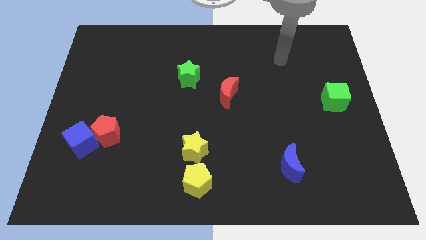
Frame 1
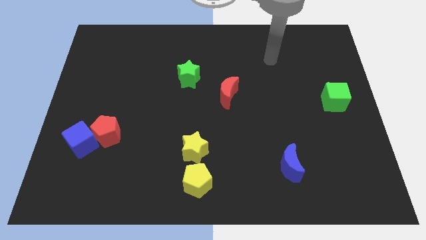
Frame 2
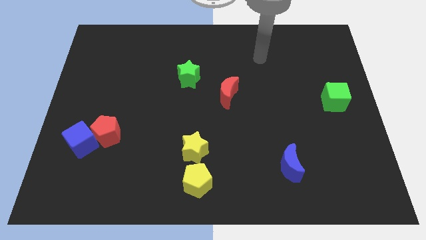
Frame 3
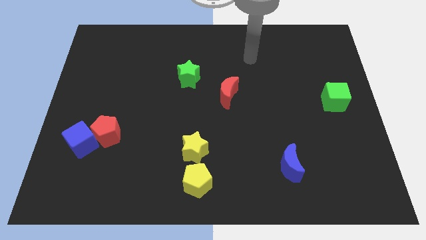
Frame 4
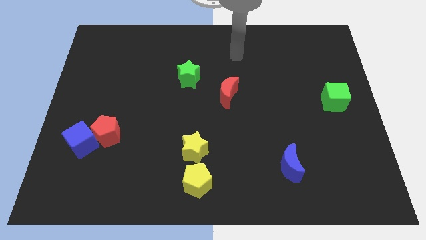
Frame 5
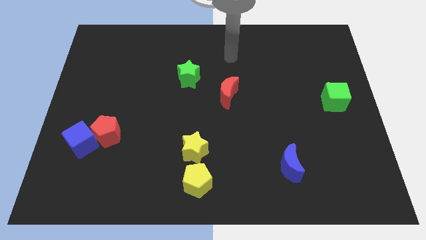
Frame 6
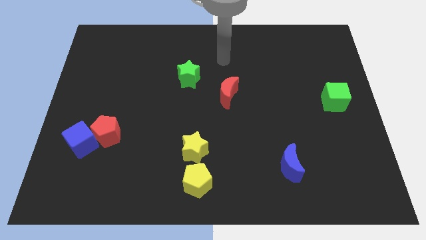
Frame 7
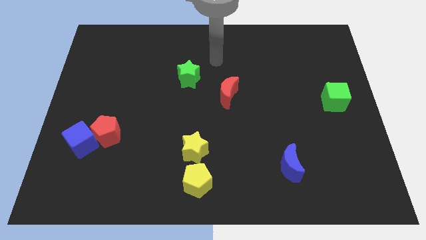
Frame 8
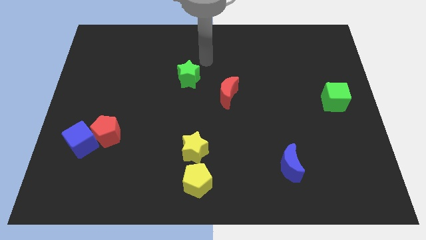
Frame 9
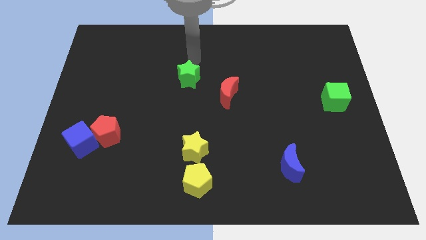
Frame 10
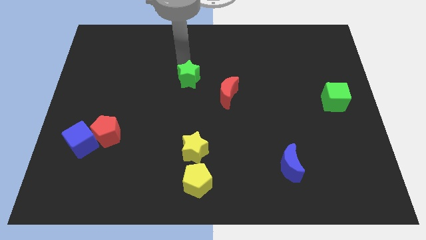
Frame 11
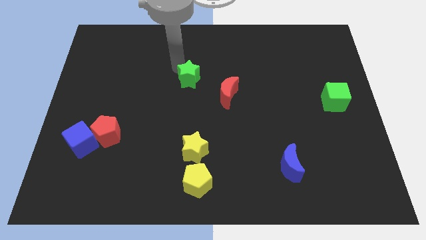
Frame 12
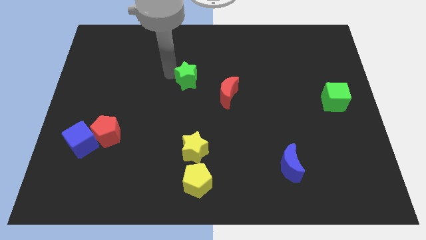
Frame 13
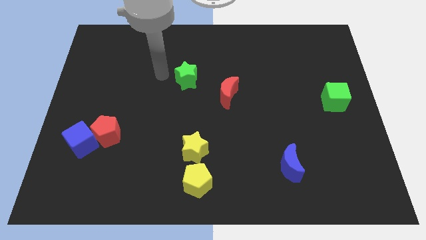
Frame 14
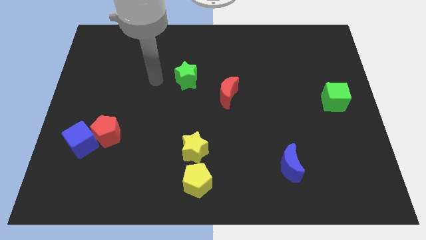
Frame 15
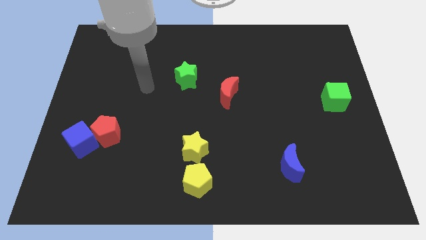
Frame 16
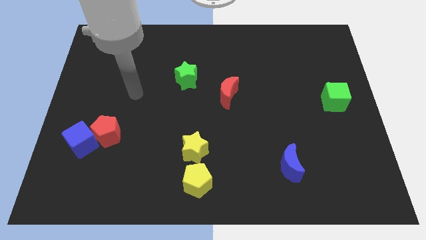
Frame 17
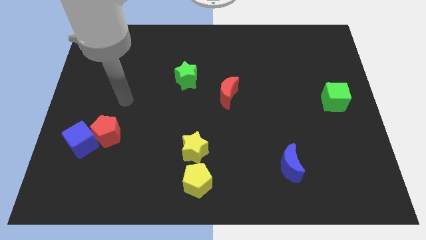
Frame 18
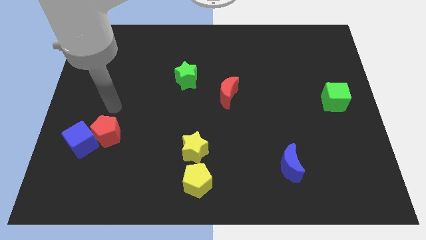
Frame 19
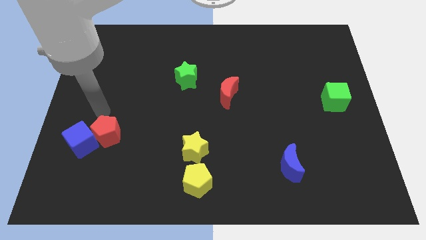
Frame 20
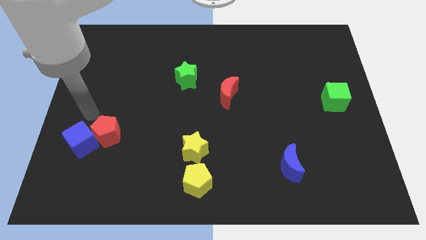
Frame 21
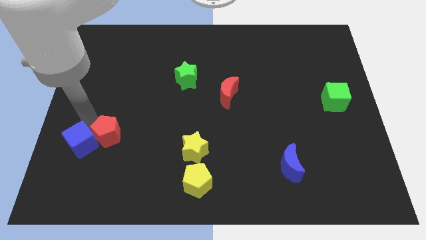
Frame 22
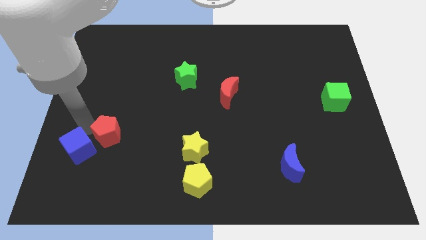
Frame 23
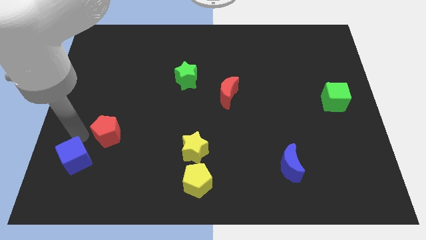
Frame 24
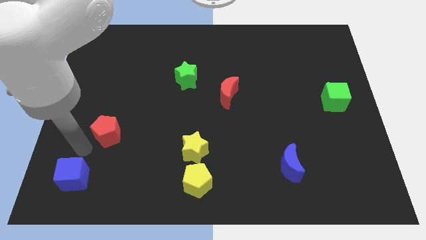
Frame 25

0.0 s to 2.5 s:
move the red pentagon away from the blue cube

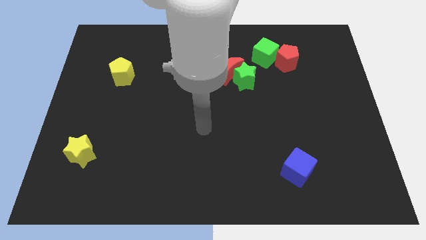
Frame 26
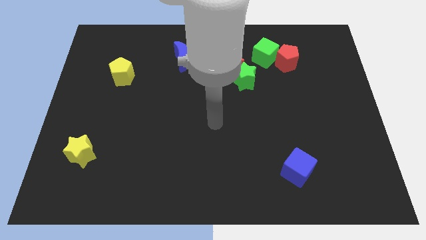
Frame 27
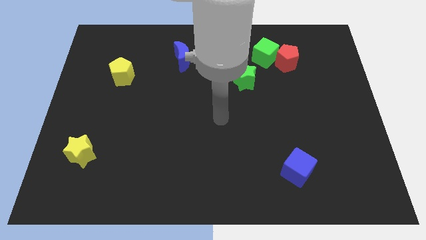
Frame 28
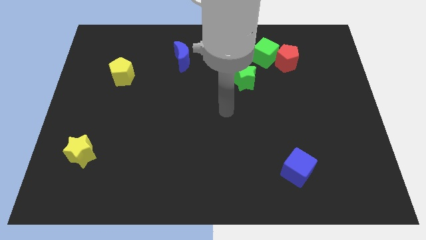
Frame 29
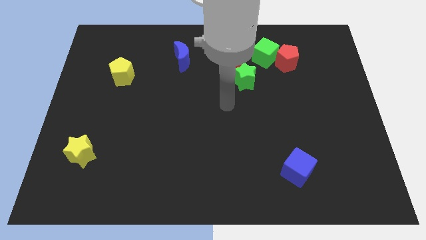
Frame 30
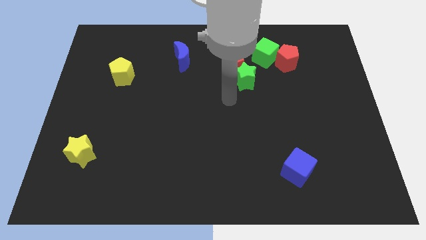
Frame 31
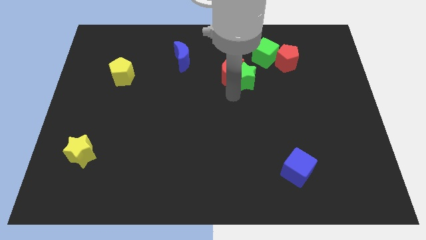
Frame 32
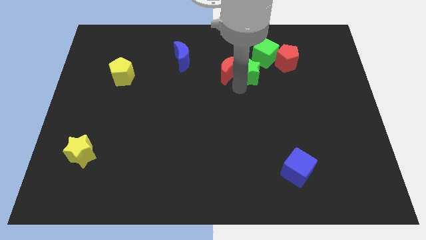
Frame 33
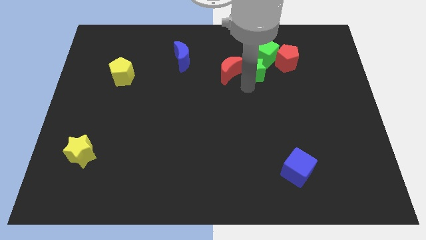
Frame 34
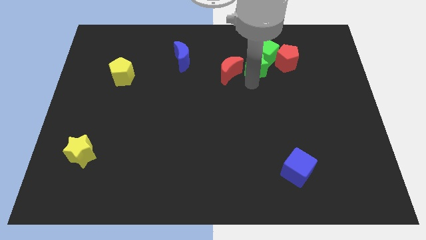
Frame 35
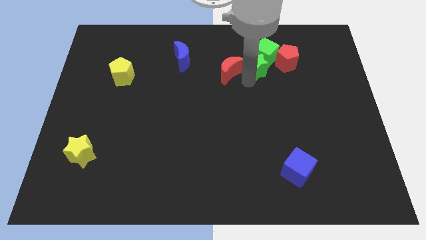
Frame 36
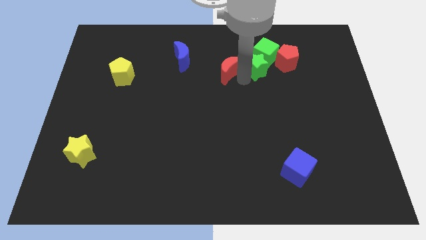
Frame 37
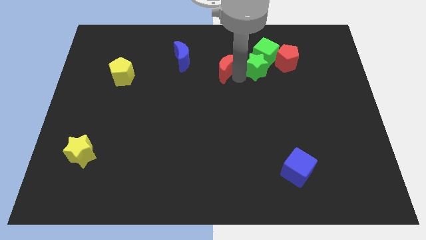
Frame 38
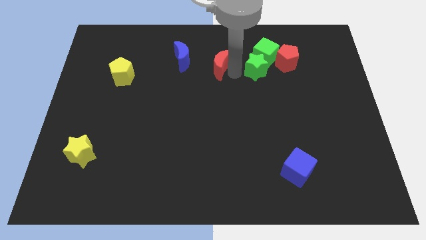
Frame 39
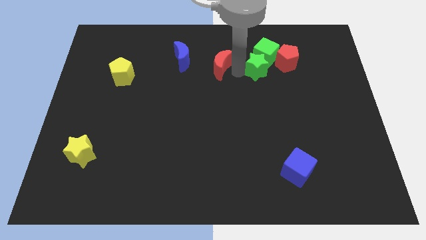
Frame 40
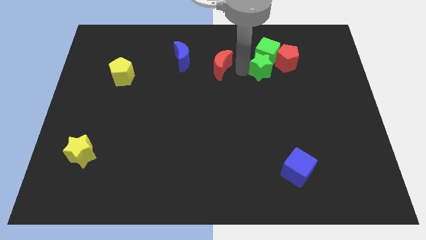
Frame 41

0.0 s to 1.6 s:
move the red moon away from the green star

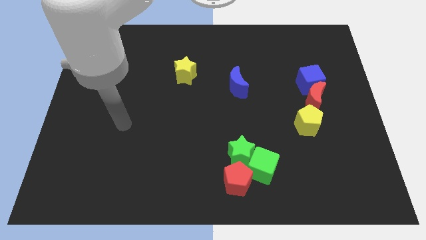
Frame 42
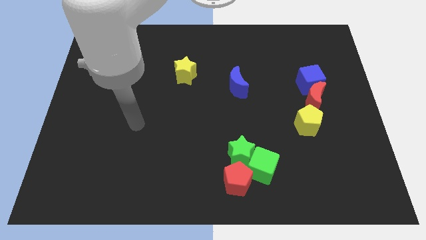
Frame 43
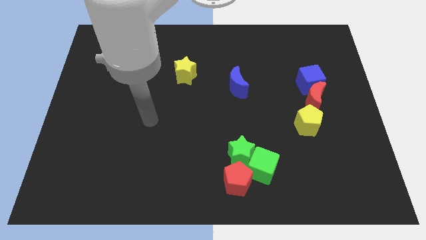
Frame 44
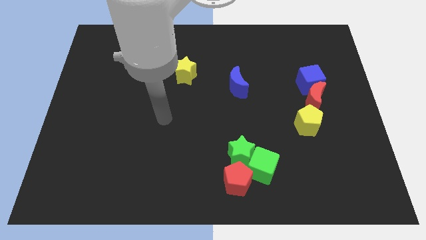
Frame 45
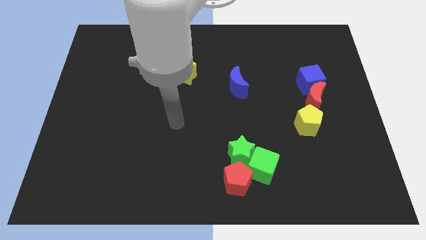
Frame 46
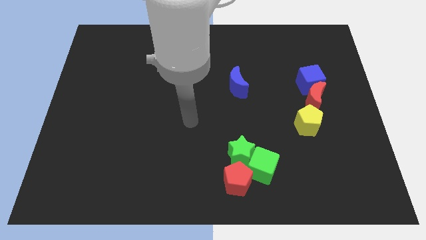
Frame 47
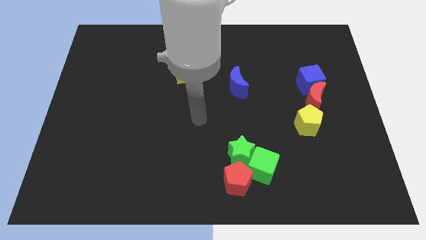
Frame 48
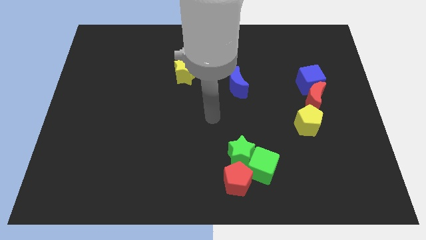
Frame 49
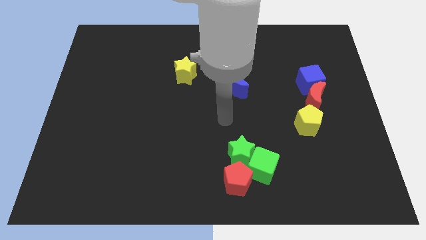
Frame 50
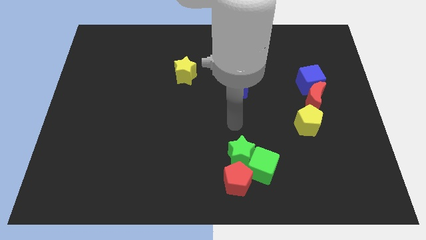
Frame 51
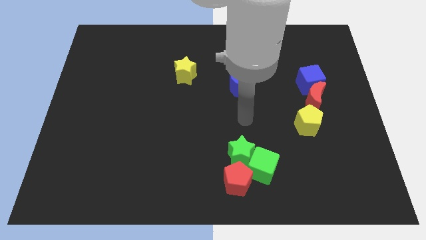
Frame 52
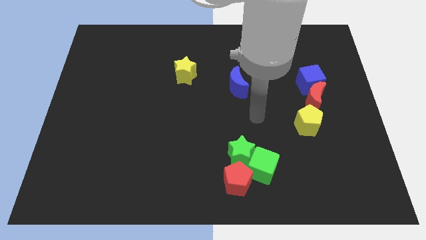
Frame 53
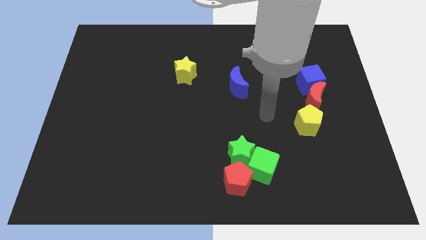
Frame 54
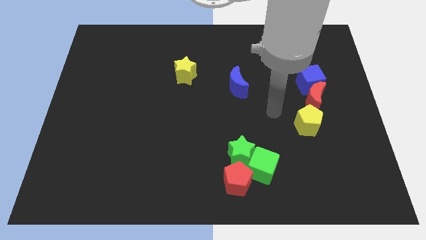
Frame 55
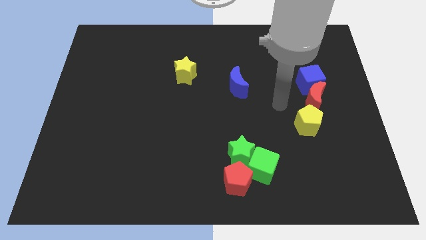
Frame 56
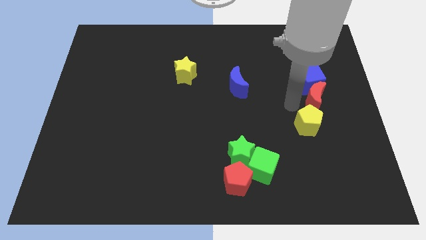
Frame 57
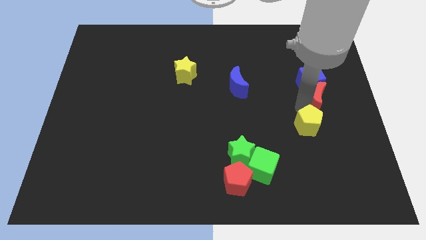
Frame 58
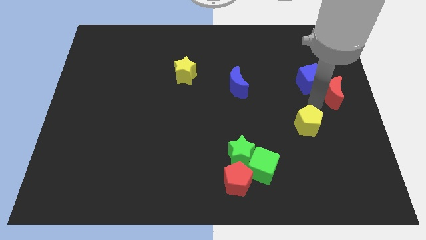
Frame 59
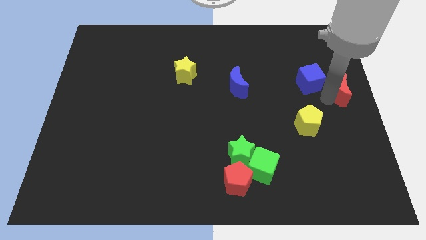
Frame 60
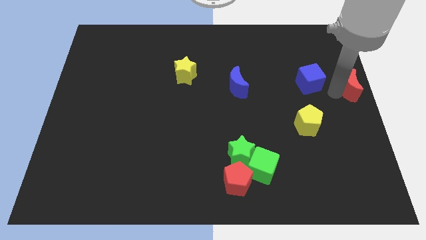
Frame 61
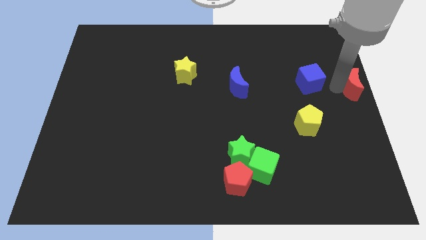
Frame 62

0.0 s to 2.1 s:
separate the blue cube from the red moon

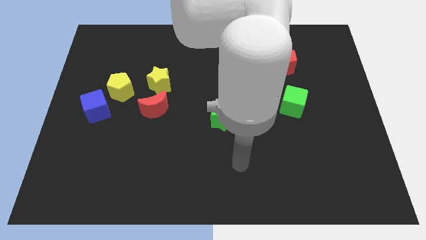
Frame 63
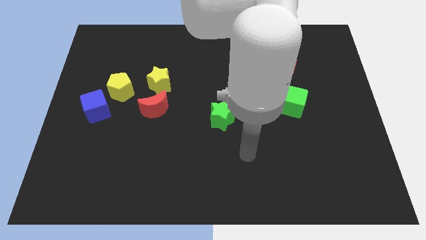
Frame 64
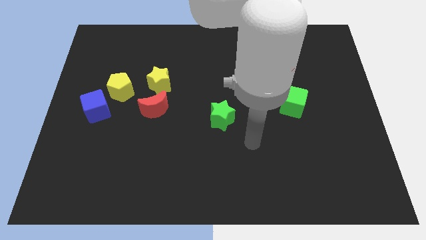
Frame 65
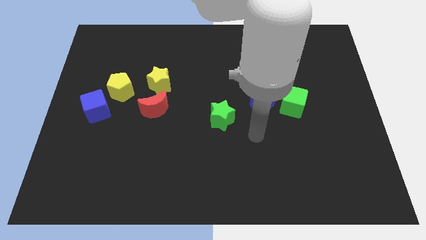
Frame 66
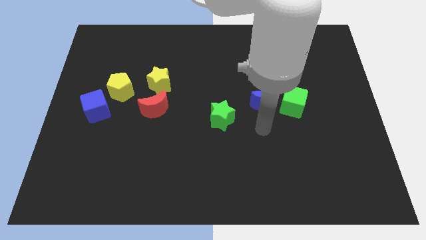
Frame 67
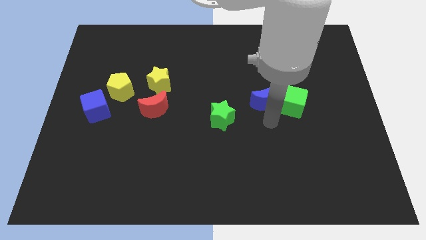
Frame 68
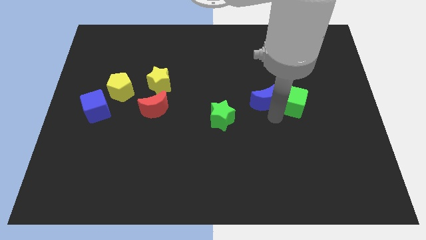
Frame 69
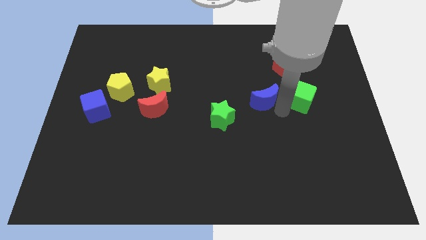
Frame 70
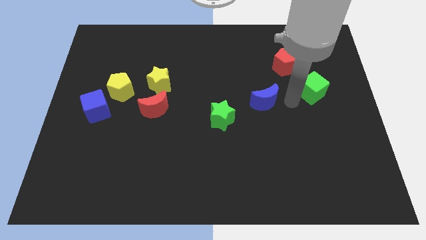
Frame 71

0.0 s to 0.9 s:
move the blue moon away from the green cube

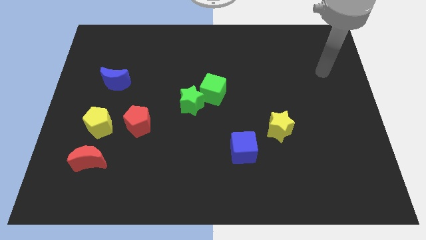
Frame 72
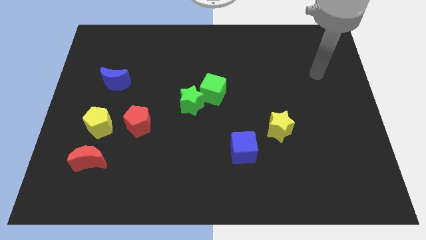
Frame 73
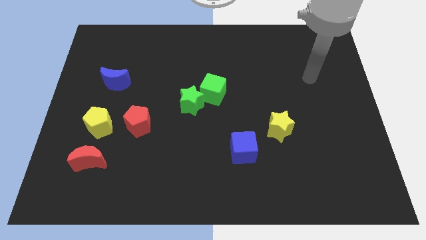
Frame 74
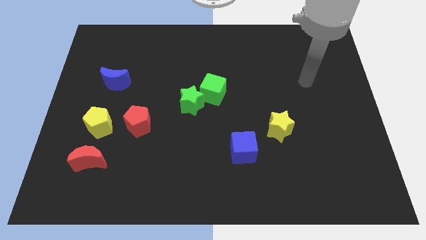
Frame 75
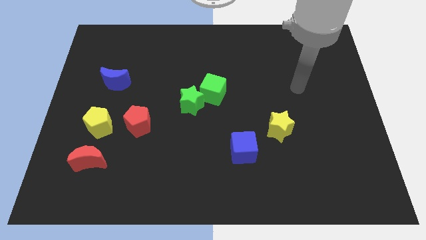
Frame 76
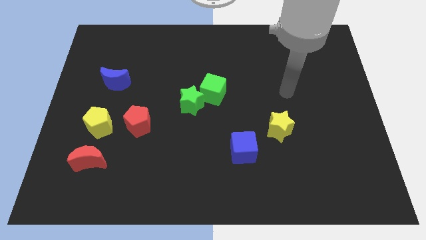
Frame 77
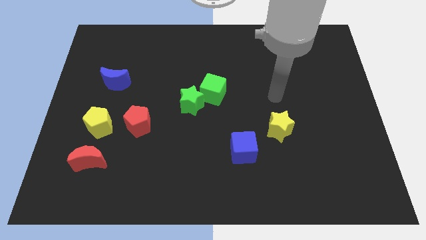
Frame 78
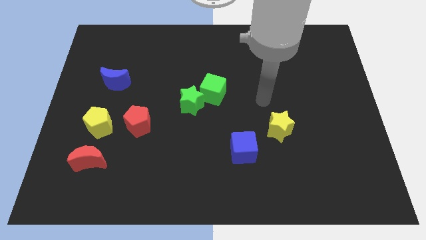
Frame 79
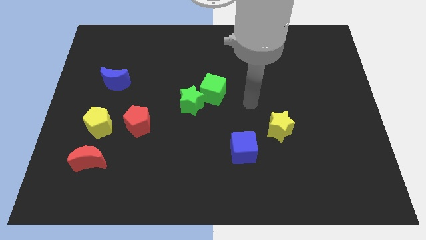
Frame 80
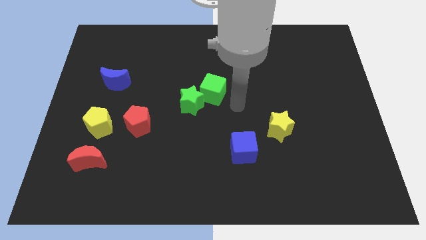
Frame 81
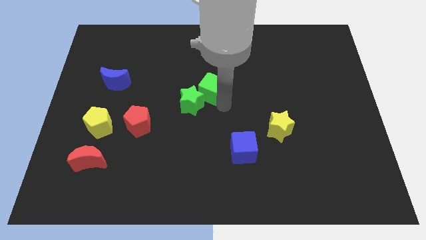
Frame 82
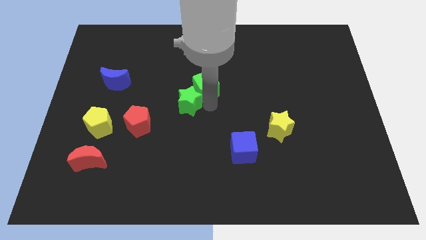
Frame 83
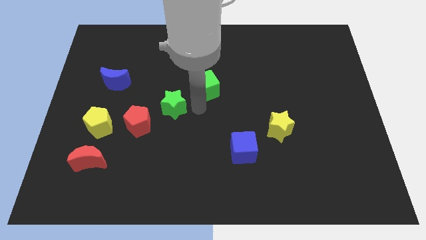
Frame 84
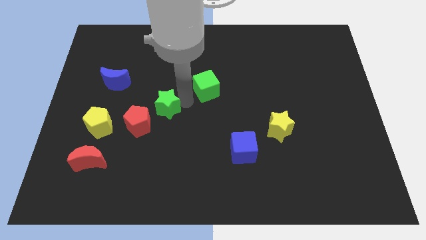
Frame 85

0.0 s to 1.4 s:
separate the green cube from the green star

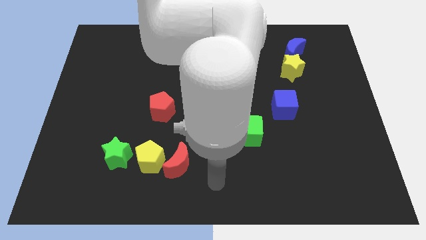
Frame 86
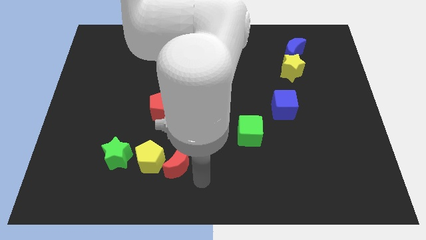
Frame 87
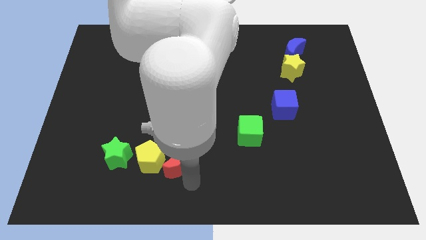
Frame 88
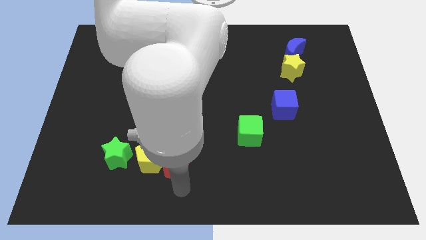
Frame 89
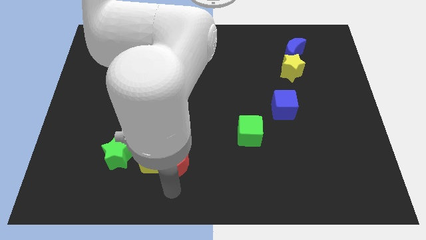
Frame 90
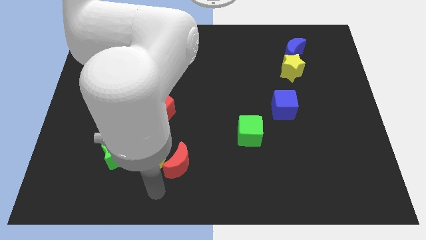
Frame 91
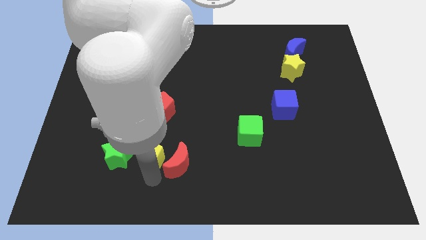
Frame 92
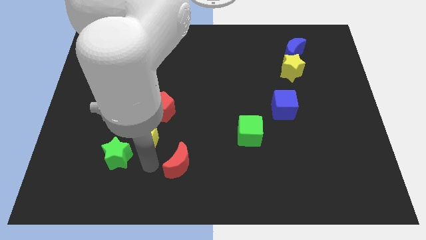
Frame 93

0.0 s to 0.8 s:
pull the red moon apart from the yellow pentagon
